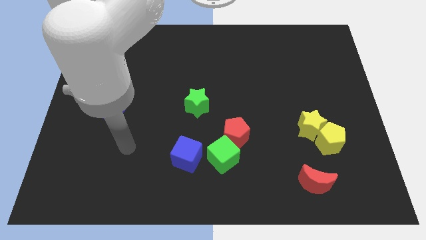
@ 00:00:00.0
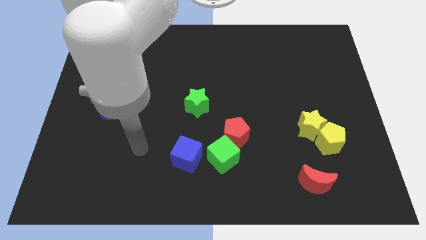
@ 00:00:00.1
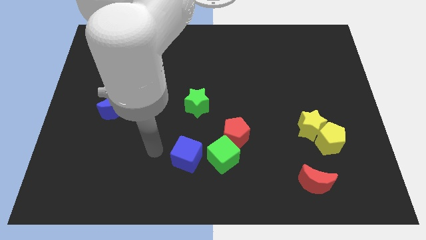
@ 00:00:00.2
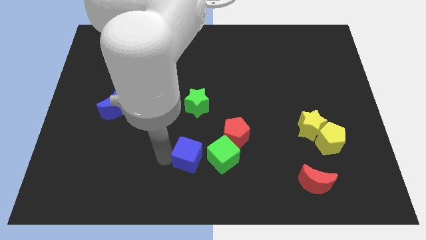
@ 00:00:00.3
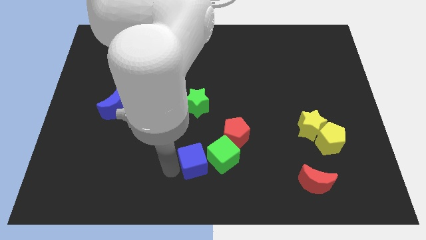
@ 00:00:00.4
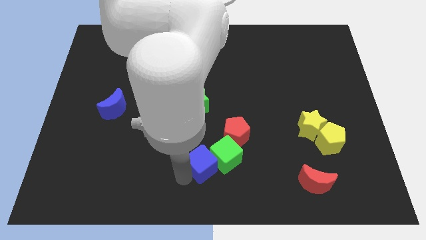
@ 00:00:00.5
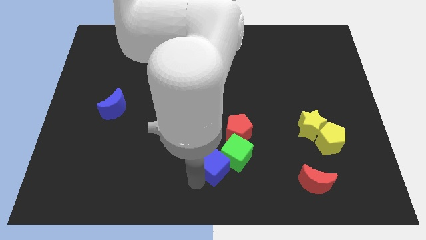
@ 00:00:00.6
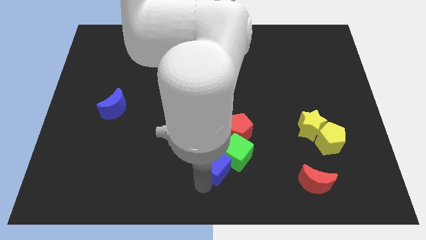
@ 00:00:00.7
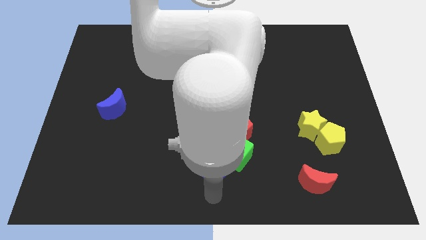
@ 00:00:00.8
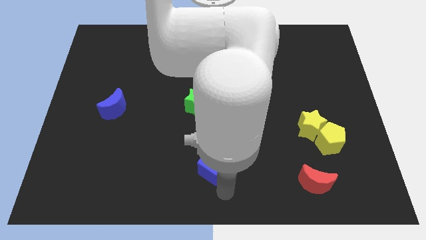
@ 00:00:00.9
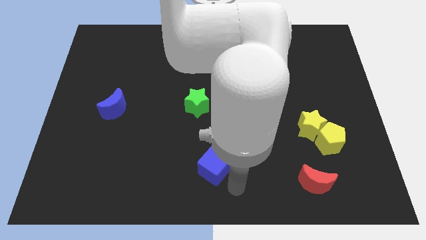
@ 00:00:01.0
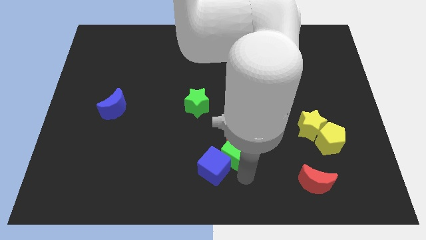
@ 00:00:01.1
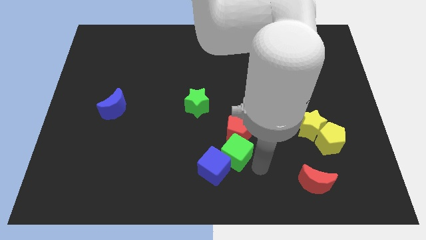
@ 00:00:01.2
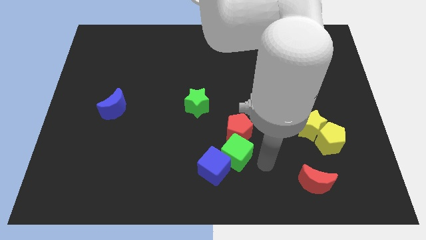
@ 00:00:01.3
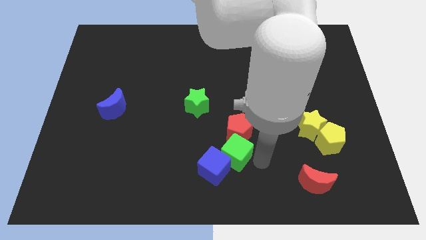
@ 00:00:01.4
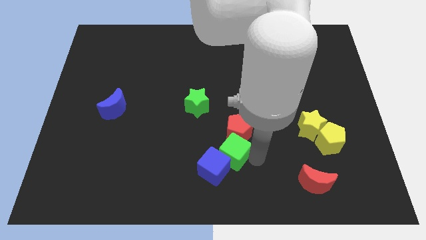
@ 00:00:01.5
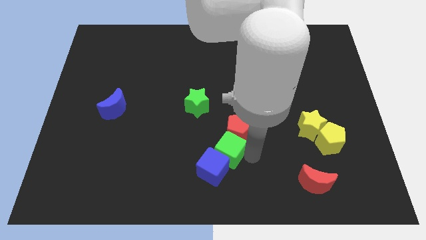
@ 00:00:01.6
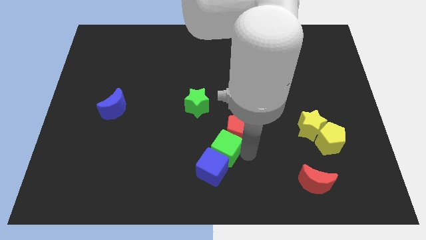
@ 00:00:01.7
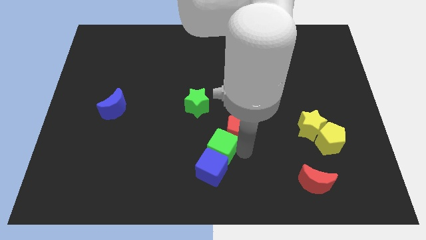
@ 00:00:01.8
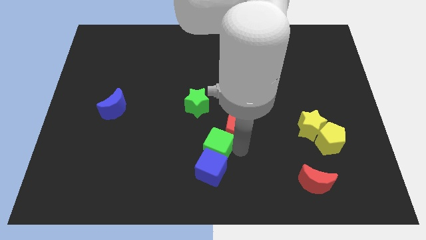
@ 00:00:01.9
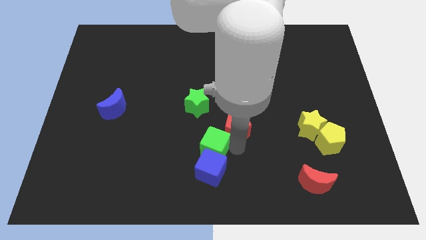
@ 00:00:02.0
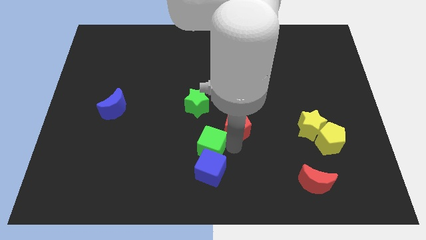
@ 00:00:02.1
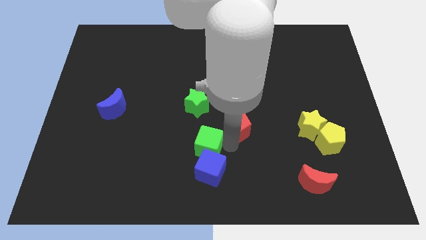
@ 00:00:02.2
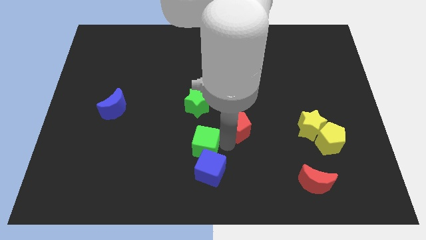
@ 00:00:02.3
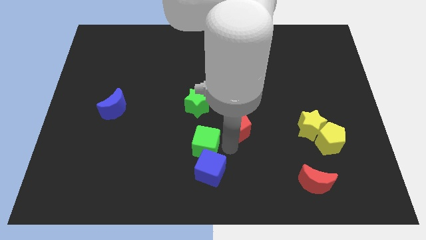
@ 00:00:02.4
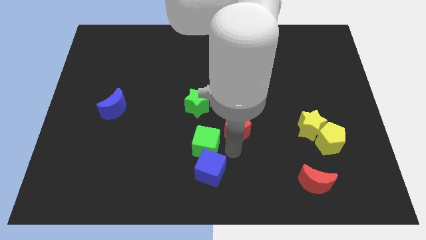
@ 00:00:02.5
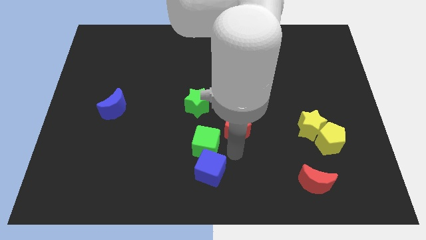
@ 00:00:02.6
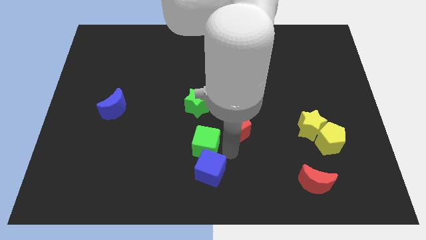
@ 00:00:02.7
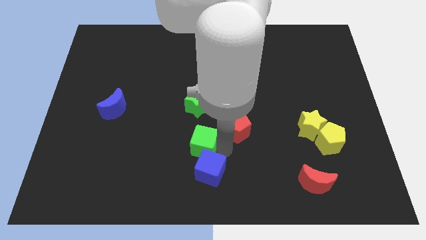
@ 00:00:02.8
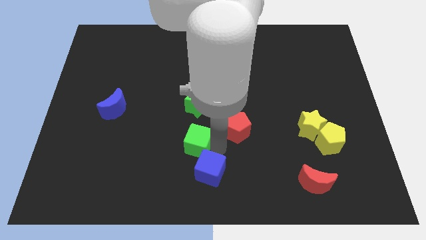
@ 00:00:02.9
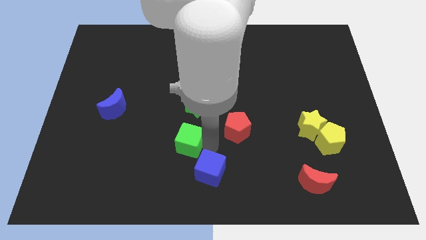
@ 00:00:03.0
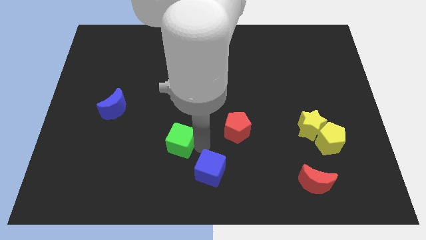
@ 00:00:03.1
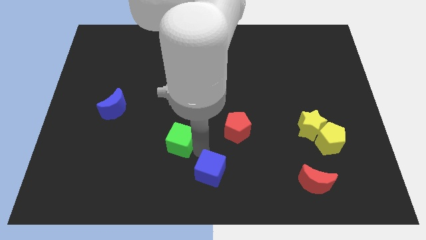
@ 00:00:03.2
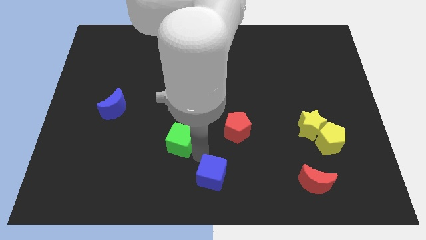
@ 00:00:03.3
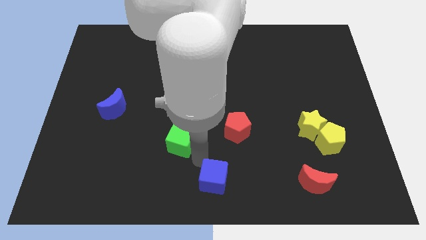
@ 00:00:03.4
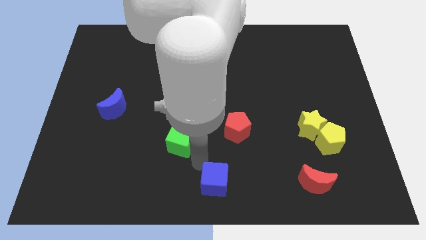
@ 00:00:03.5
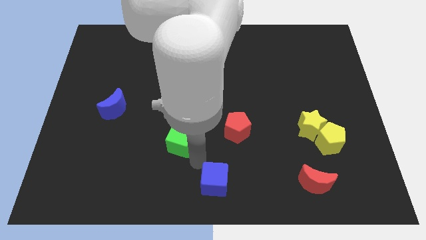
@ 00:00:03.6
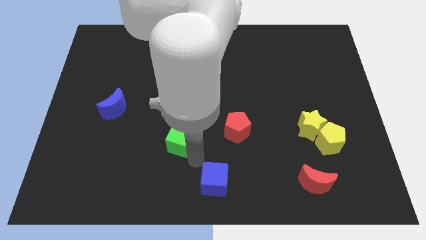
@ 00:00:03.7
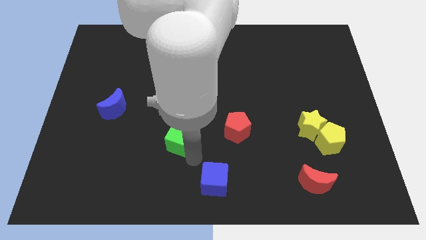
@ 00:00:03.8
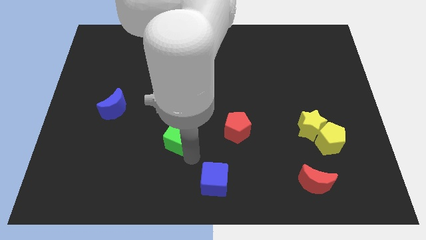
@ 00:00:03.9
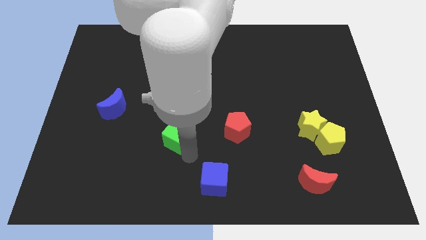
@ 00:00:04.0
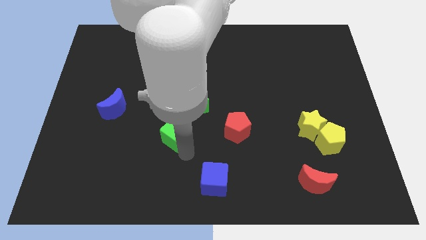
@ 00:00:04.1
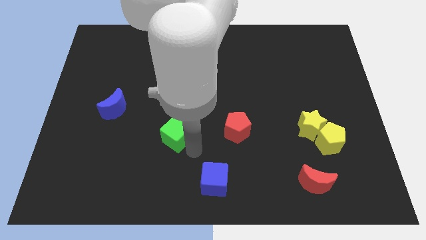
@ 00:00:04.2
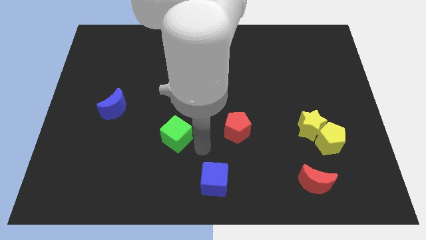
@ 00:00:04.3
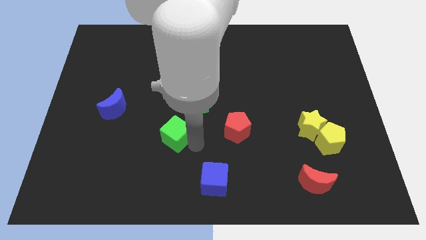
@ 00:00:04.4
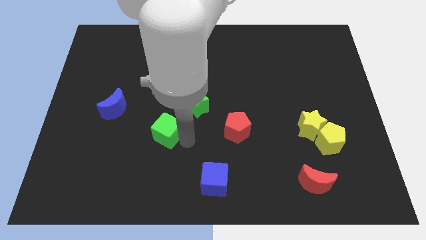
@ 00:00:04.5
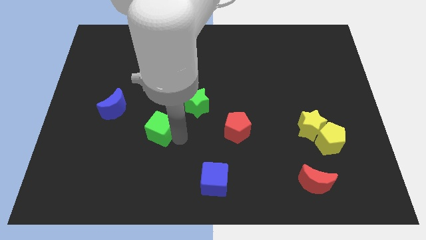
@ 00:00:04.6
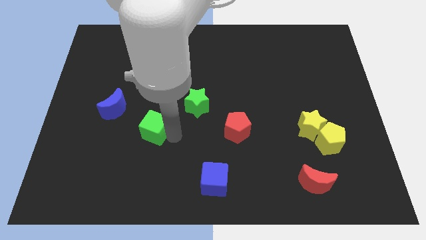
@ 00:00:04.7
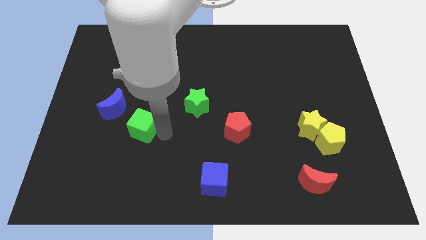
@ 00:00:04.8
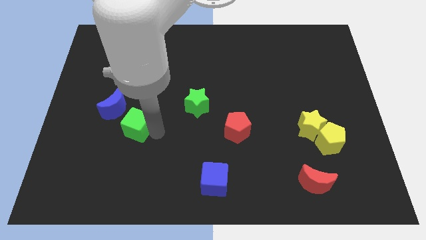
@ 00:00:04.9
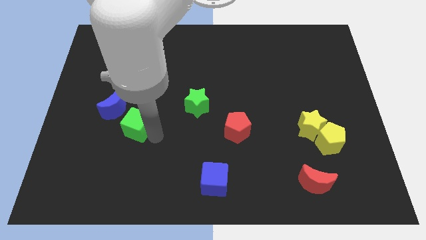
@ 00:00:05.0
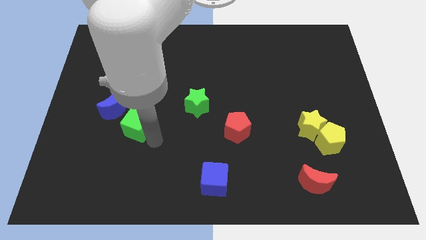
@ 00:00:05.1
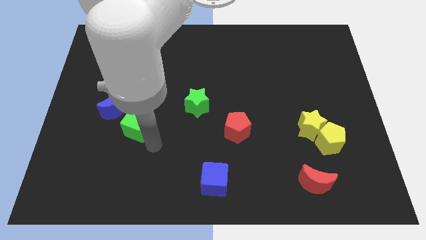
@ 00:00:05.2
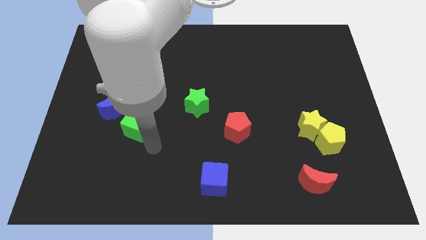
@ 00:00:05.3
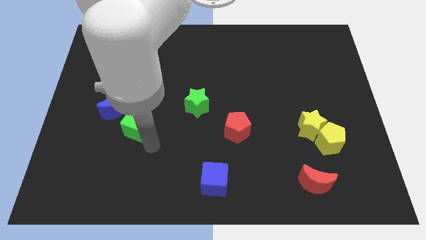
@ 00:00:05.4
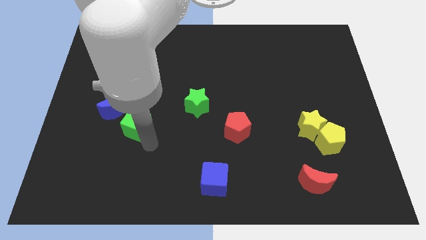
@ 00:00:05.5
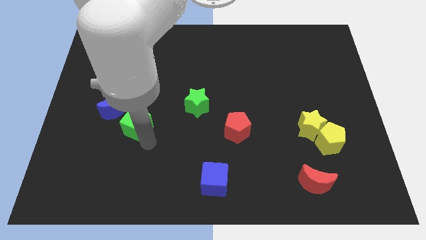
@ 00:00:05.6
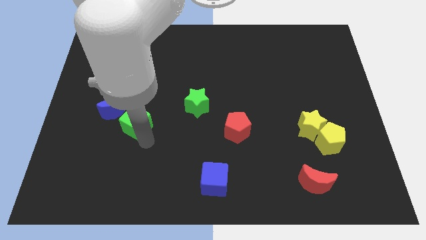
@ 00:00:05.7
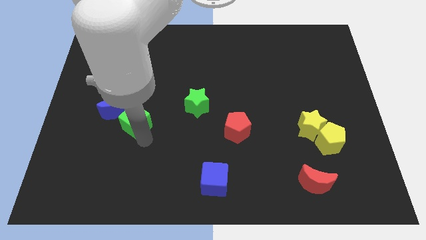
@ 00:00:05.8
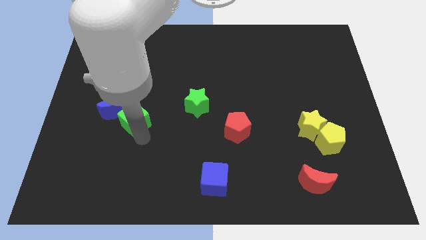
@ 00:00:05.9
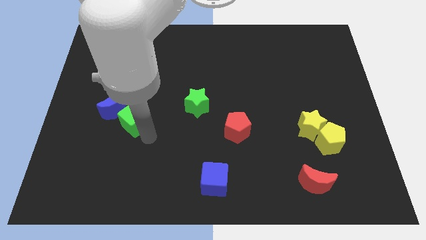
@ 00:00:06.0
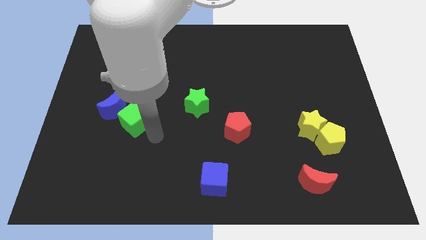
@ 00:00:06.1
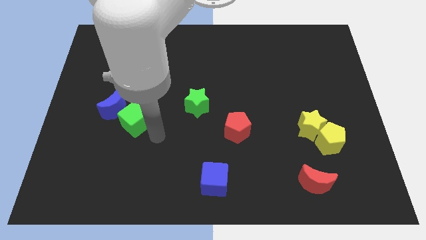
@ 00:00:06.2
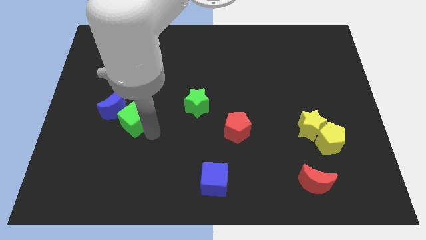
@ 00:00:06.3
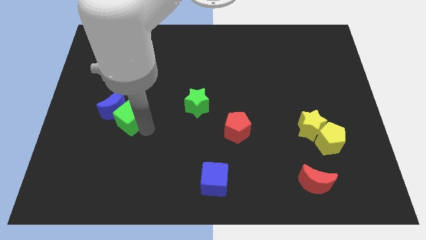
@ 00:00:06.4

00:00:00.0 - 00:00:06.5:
slide the green cube next to the blue moon
